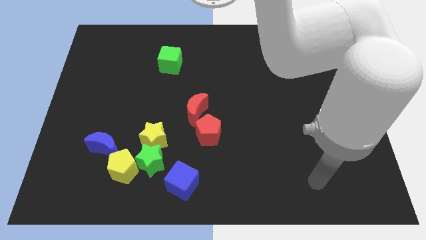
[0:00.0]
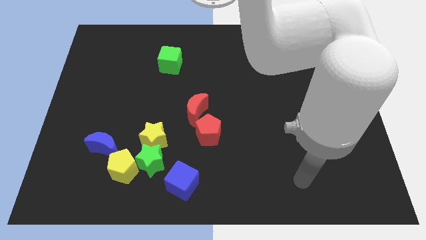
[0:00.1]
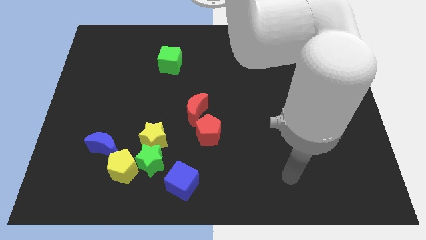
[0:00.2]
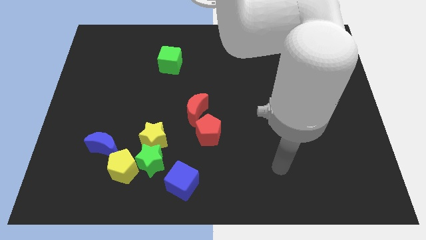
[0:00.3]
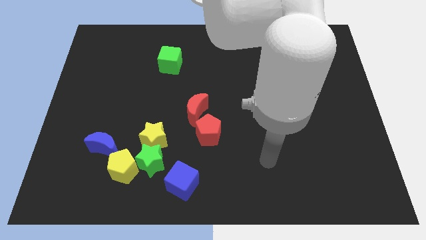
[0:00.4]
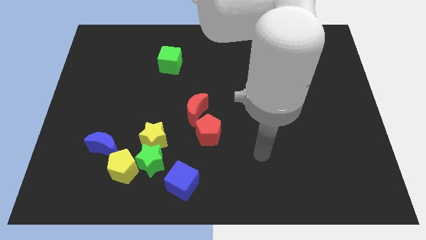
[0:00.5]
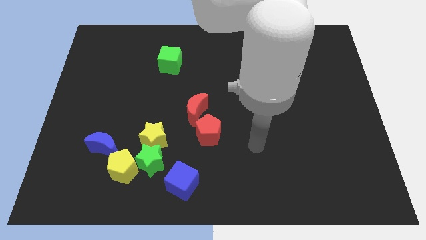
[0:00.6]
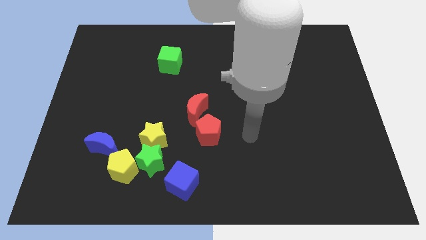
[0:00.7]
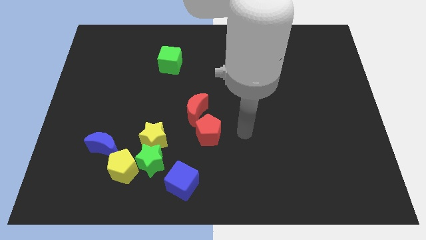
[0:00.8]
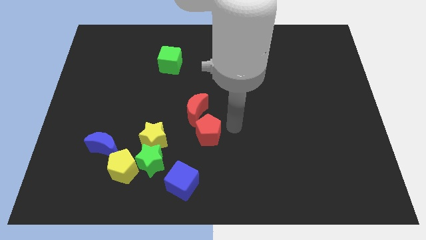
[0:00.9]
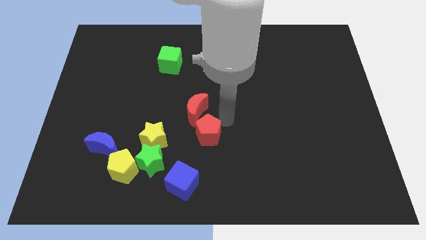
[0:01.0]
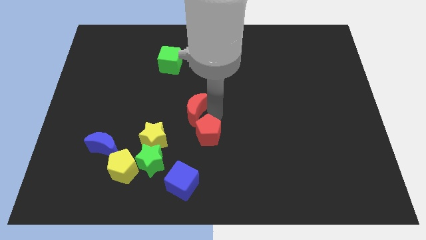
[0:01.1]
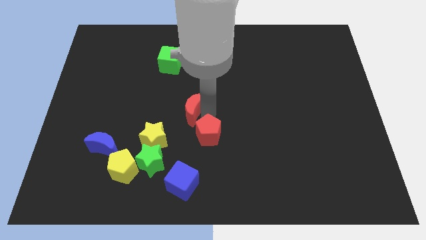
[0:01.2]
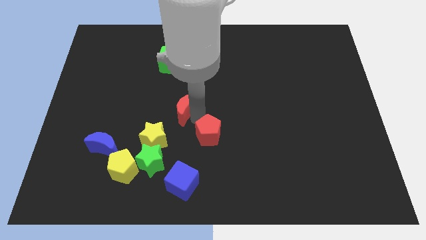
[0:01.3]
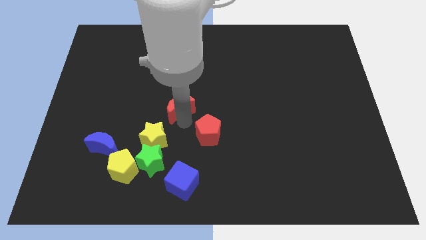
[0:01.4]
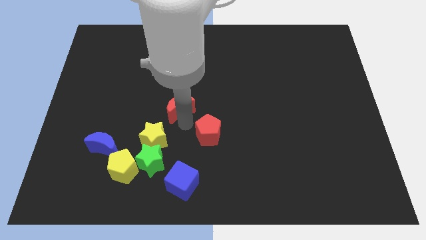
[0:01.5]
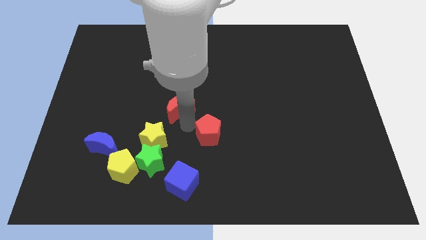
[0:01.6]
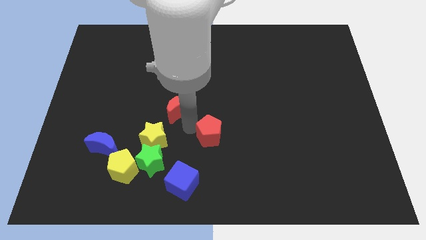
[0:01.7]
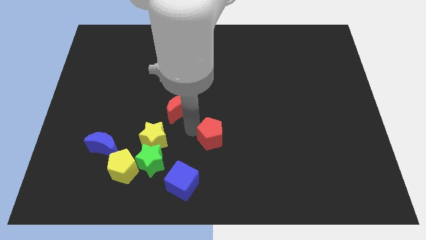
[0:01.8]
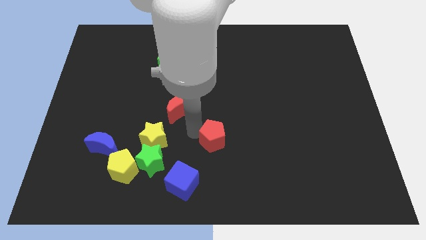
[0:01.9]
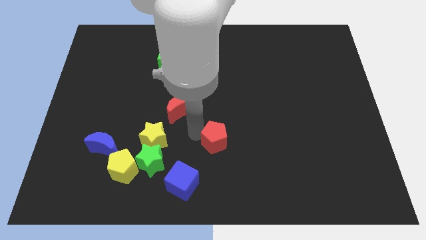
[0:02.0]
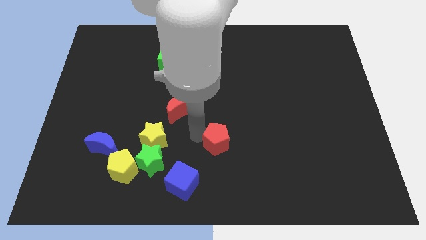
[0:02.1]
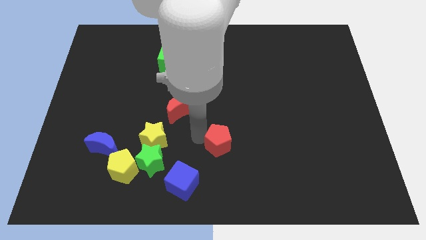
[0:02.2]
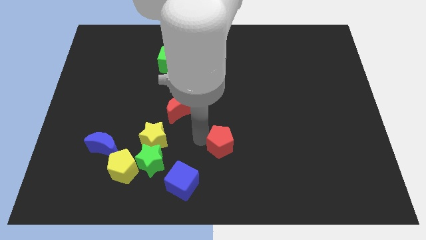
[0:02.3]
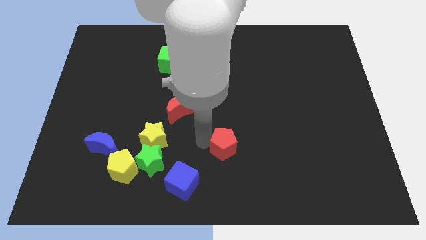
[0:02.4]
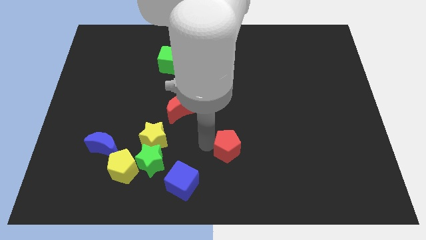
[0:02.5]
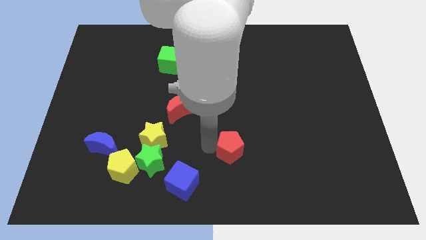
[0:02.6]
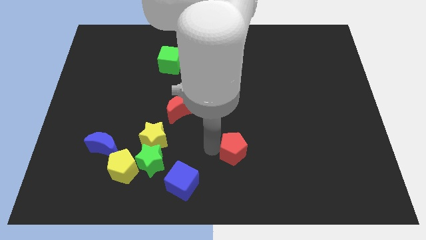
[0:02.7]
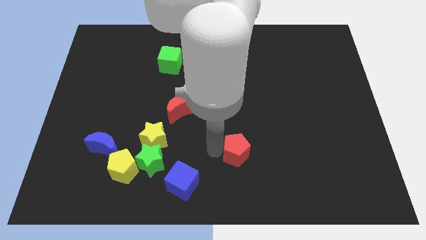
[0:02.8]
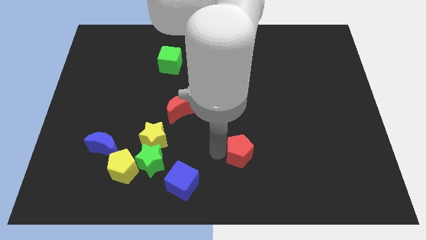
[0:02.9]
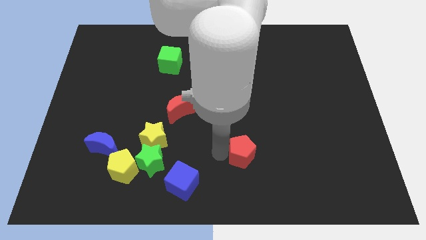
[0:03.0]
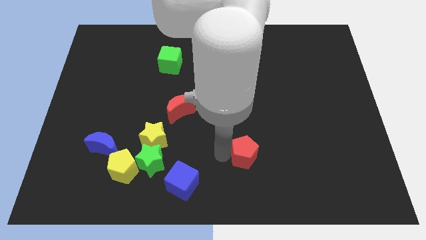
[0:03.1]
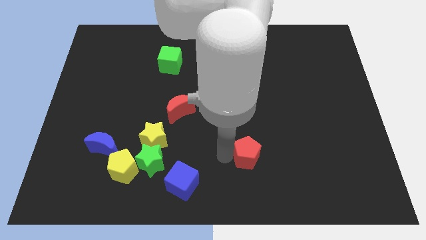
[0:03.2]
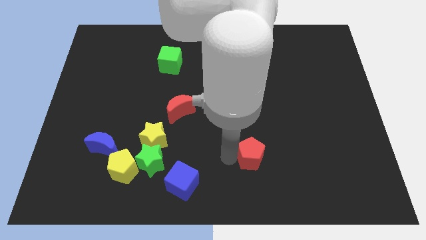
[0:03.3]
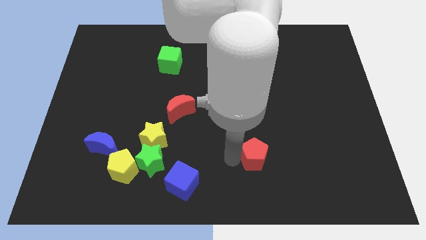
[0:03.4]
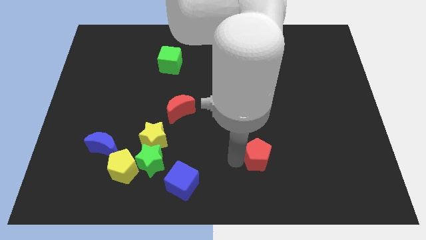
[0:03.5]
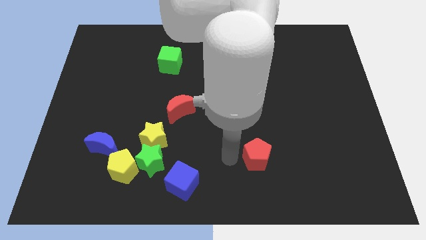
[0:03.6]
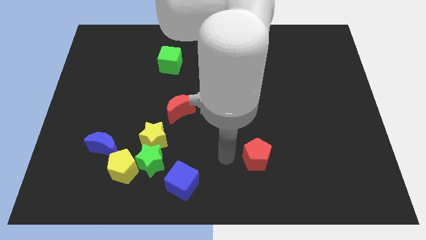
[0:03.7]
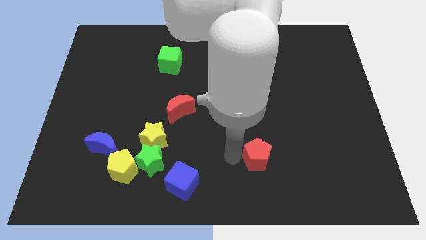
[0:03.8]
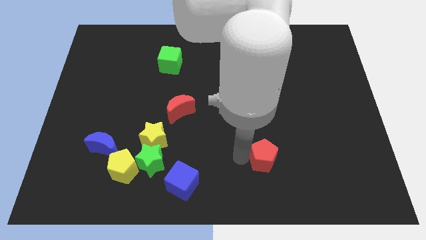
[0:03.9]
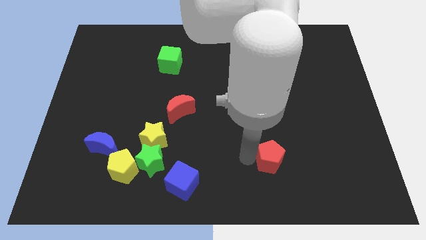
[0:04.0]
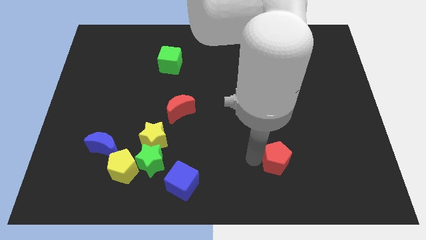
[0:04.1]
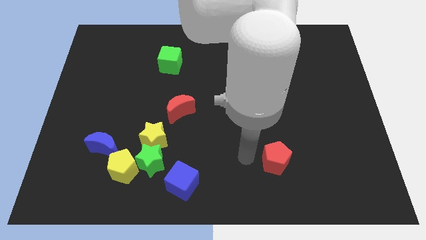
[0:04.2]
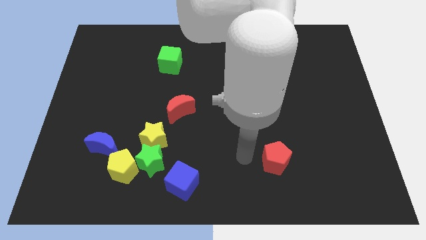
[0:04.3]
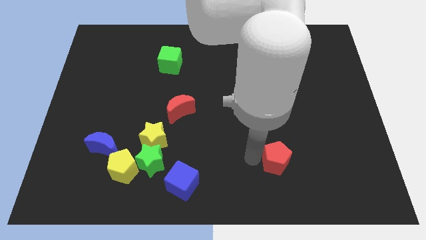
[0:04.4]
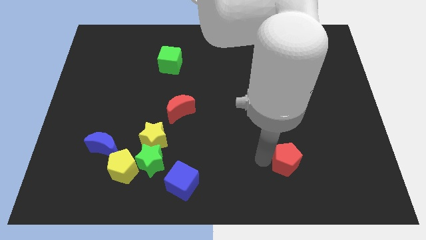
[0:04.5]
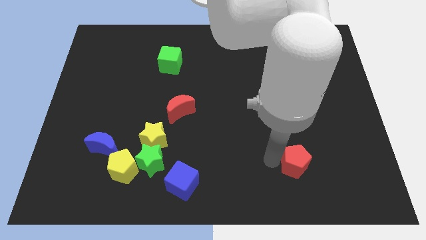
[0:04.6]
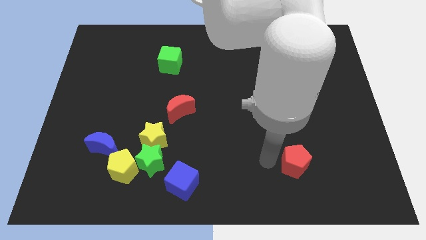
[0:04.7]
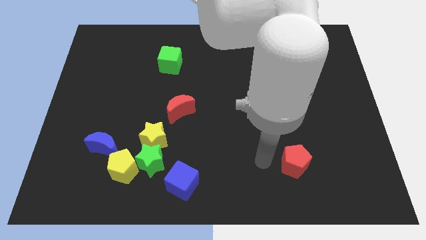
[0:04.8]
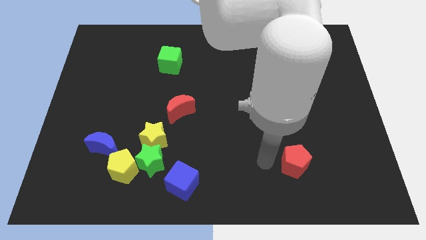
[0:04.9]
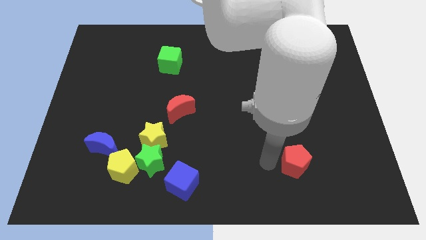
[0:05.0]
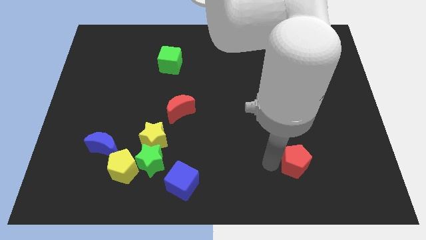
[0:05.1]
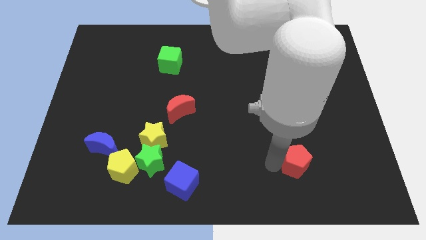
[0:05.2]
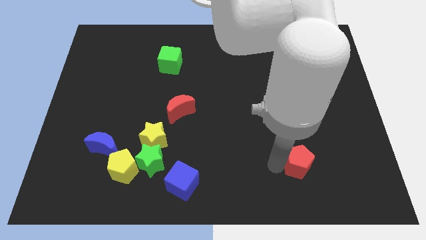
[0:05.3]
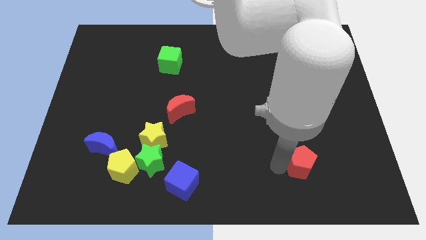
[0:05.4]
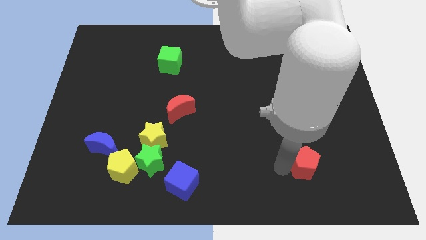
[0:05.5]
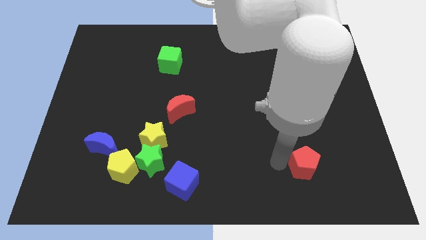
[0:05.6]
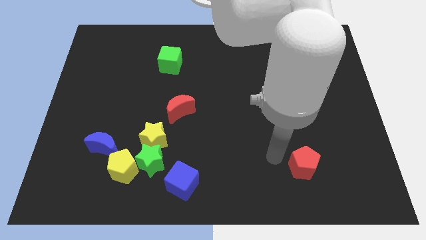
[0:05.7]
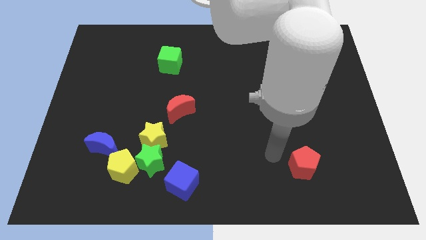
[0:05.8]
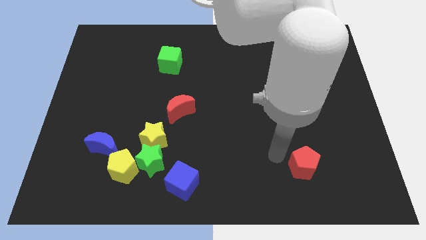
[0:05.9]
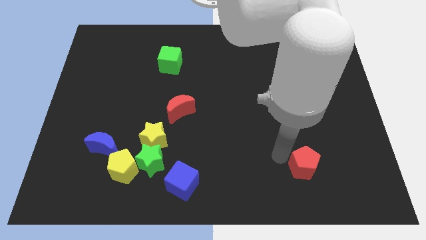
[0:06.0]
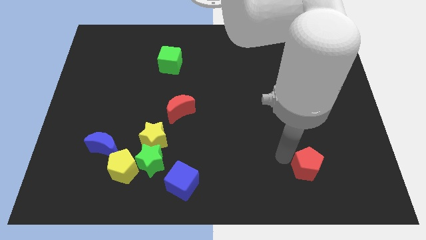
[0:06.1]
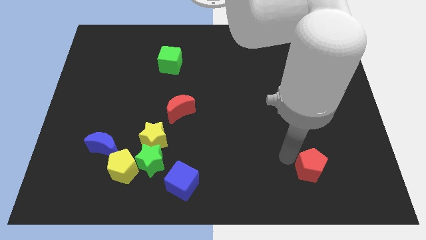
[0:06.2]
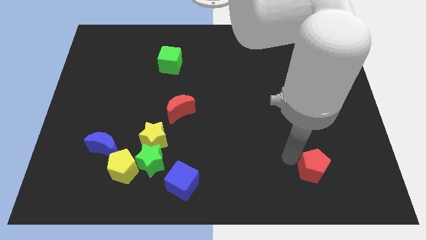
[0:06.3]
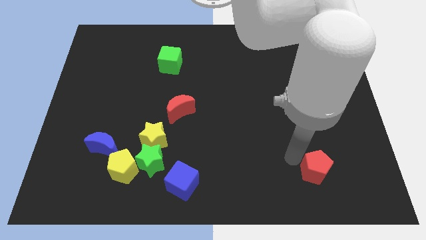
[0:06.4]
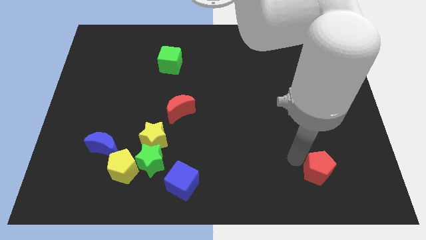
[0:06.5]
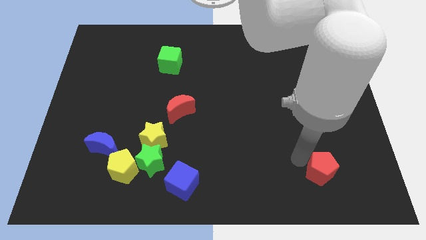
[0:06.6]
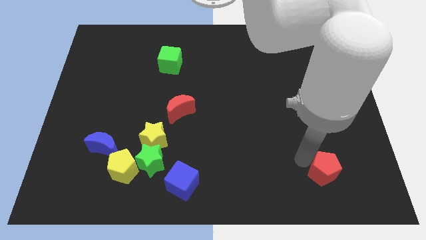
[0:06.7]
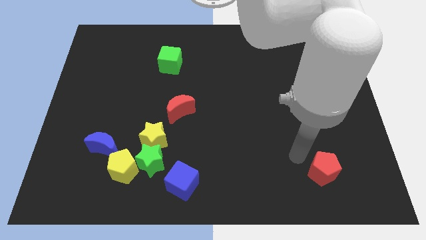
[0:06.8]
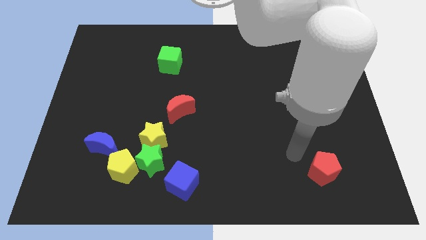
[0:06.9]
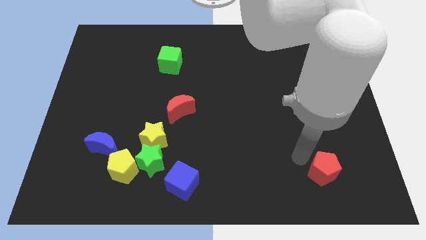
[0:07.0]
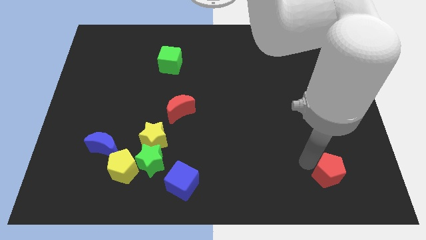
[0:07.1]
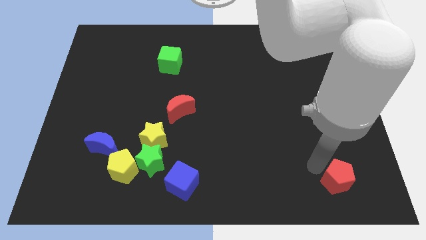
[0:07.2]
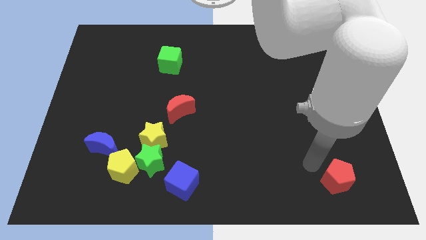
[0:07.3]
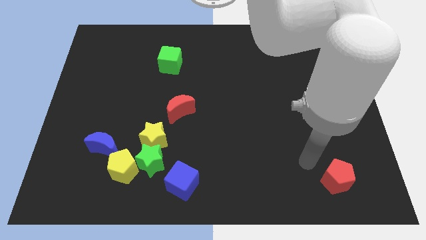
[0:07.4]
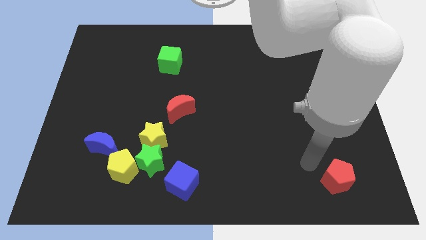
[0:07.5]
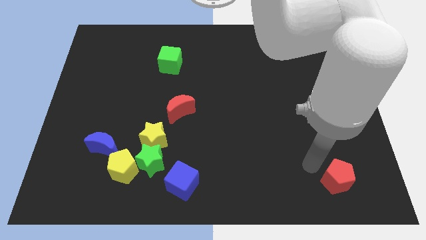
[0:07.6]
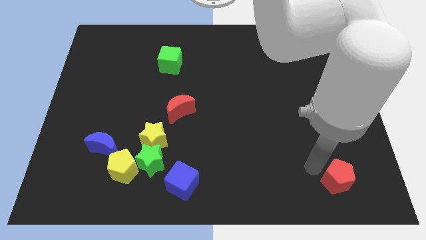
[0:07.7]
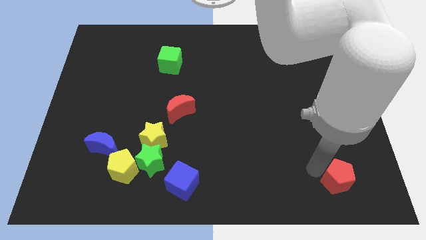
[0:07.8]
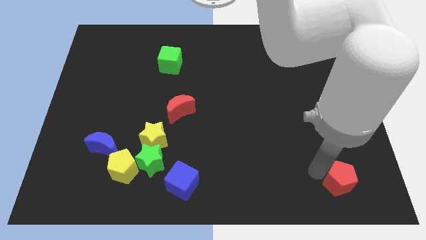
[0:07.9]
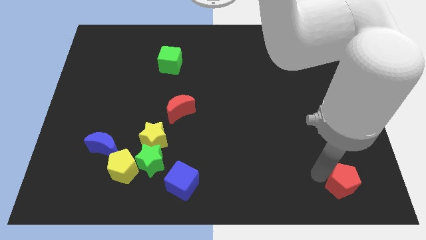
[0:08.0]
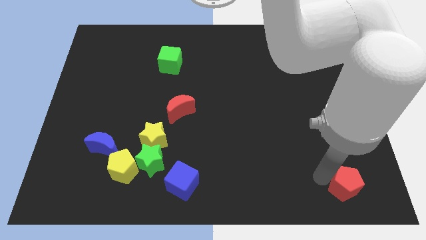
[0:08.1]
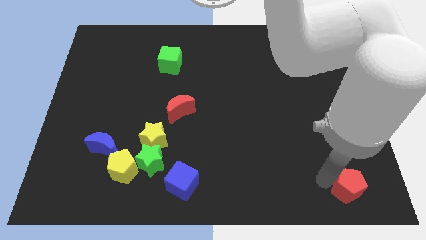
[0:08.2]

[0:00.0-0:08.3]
put the red pentagon to the lower right corner
